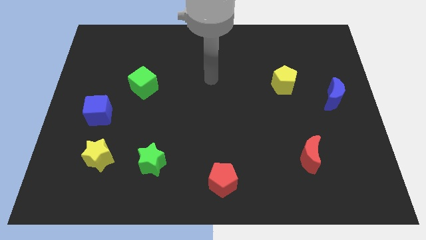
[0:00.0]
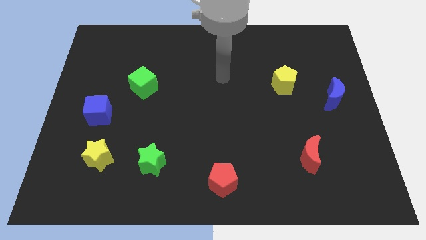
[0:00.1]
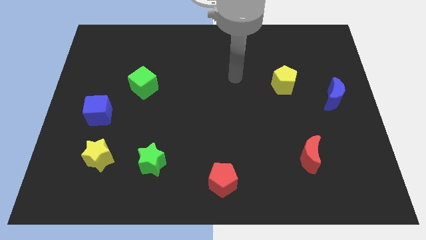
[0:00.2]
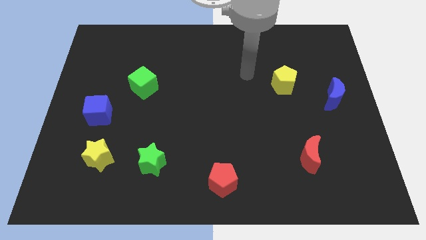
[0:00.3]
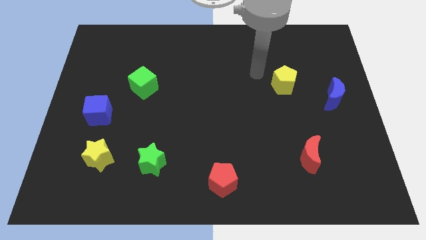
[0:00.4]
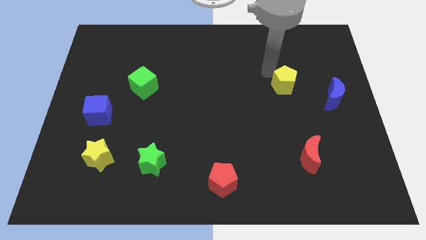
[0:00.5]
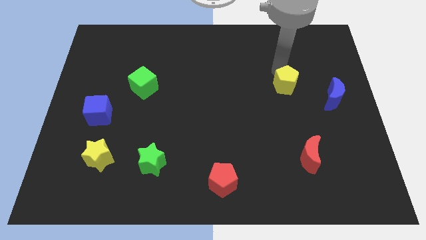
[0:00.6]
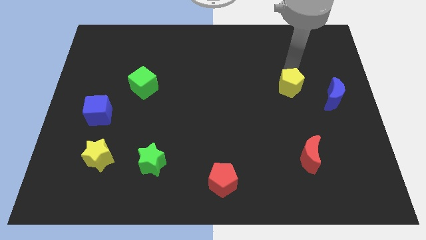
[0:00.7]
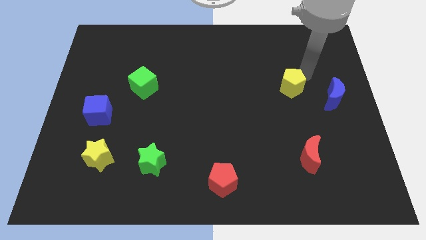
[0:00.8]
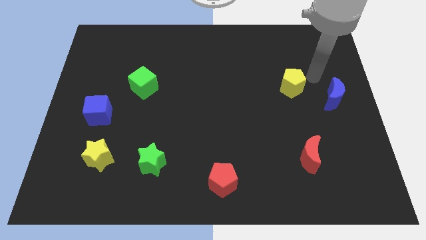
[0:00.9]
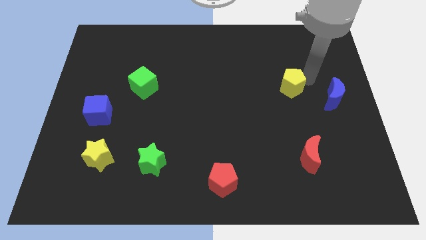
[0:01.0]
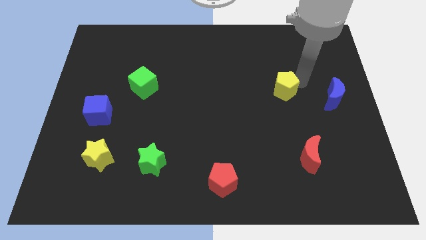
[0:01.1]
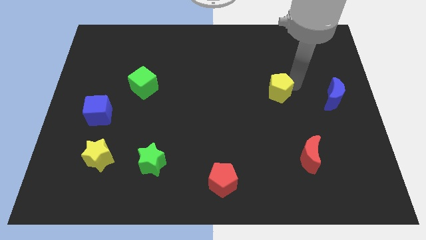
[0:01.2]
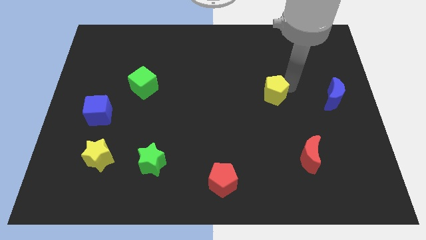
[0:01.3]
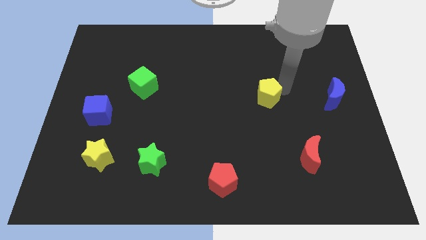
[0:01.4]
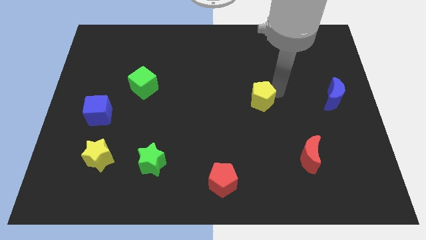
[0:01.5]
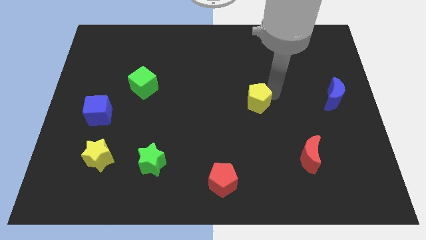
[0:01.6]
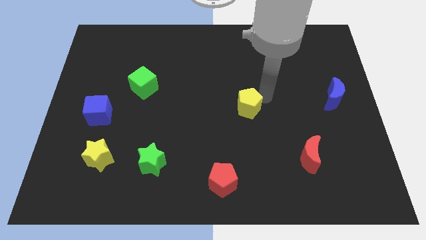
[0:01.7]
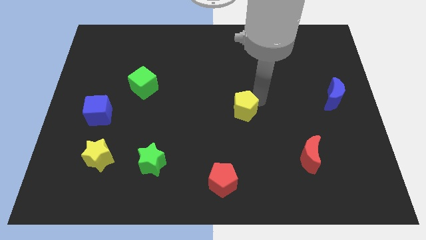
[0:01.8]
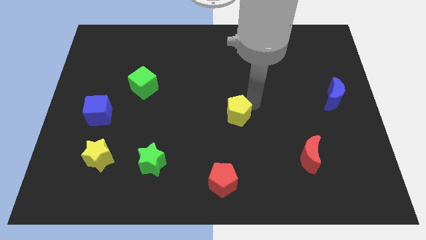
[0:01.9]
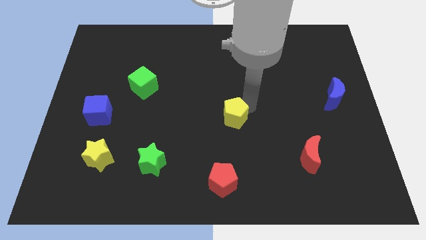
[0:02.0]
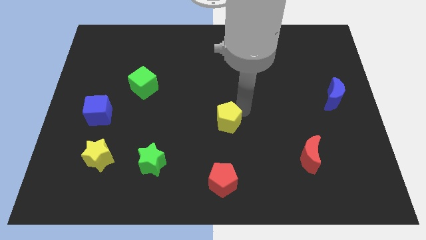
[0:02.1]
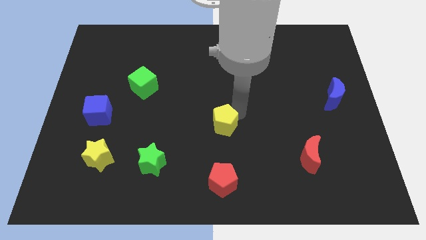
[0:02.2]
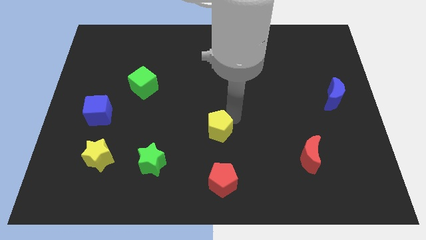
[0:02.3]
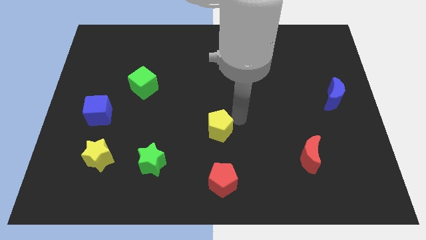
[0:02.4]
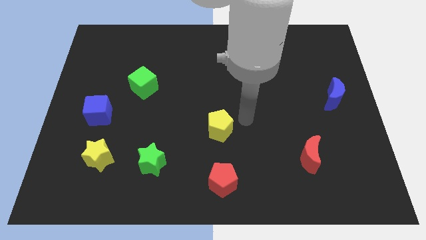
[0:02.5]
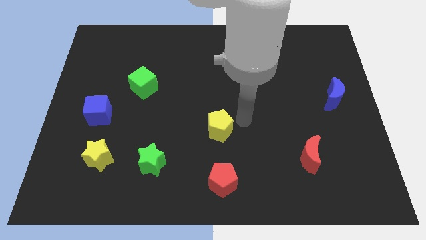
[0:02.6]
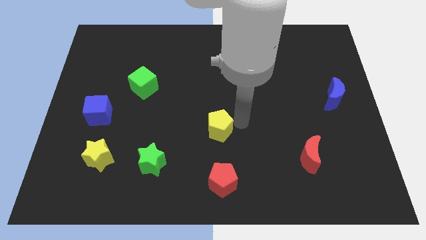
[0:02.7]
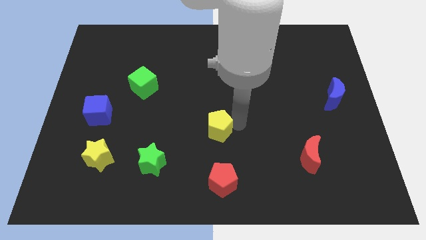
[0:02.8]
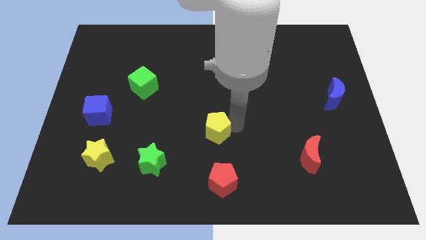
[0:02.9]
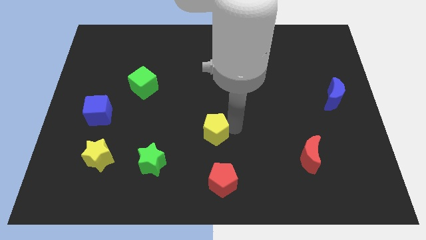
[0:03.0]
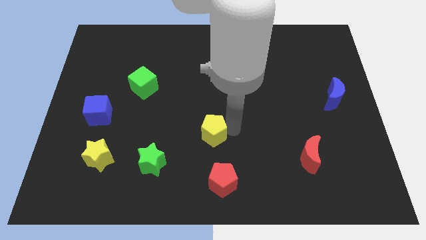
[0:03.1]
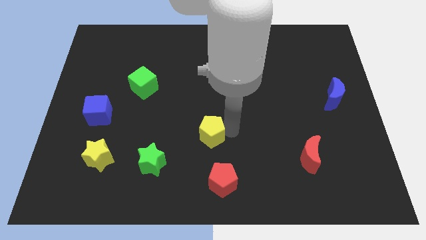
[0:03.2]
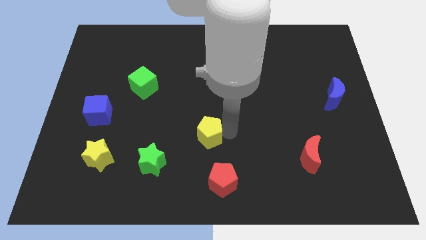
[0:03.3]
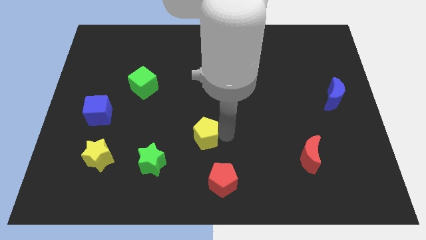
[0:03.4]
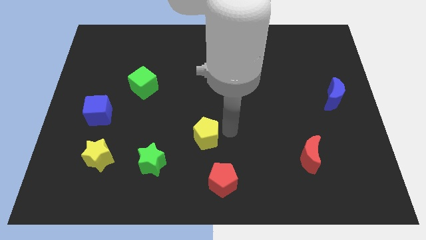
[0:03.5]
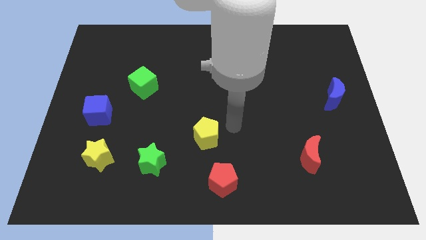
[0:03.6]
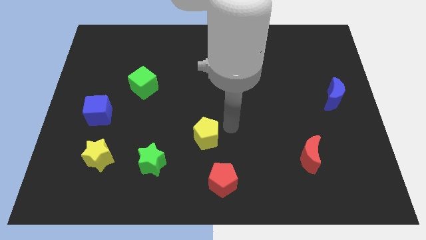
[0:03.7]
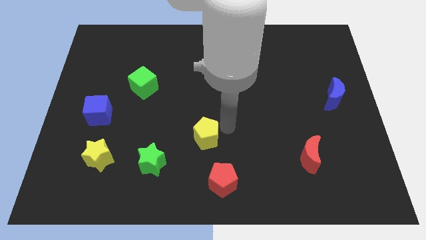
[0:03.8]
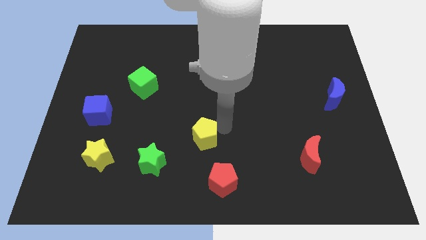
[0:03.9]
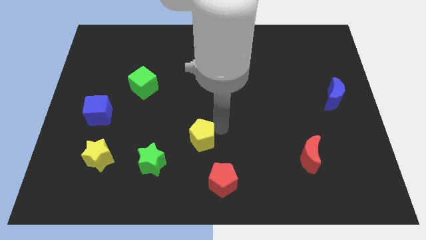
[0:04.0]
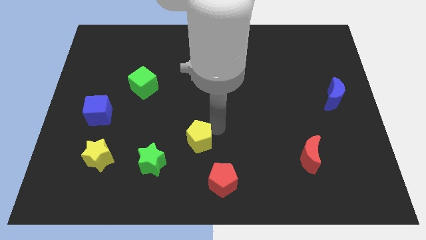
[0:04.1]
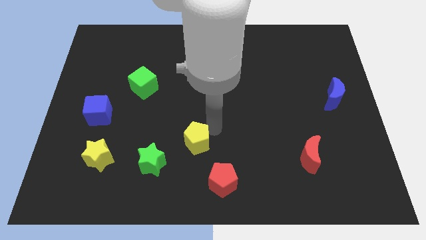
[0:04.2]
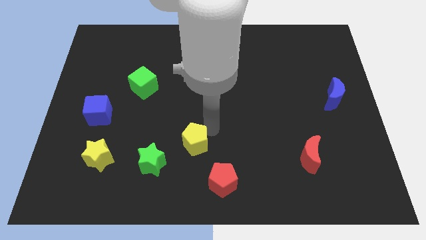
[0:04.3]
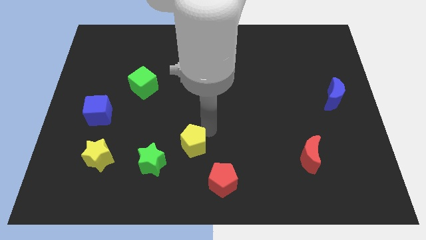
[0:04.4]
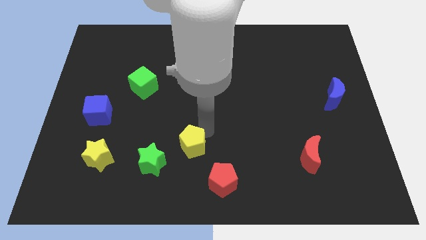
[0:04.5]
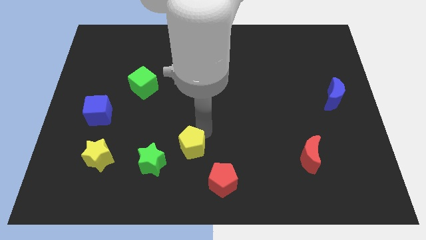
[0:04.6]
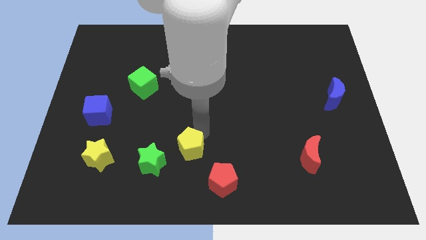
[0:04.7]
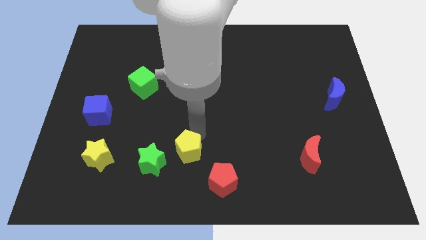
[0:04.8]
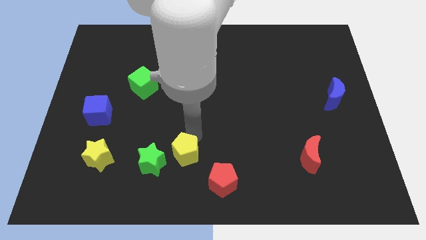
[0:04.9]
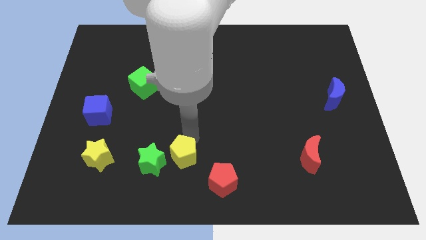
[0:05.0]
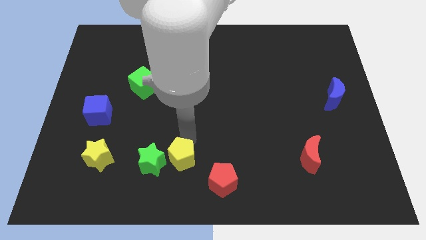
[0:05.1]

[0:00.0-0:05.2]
put the yellow pentagon close to the green star

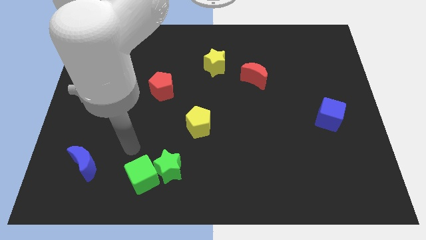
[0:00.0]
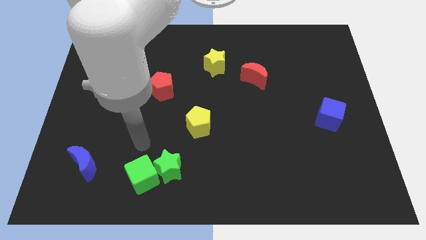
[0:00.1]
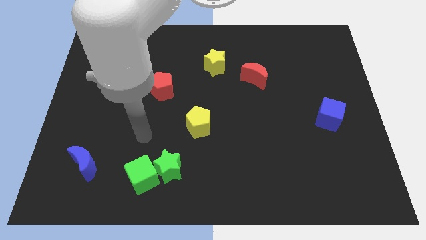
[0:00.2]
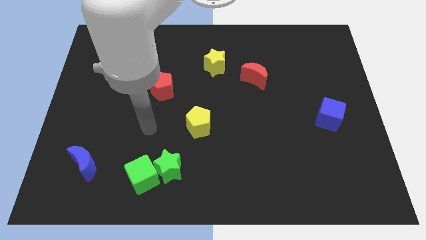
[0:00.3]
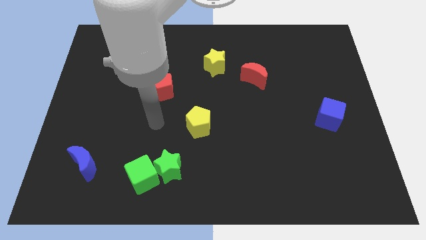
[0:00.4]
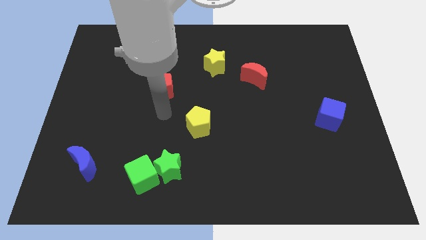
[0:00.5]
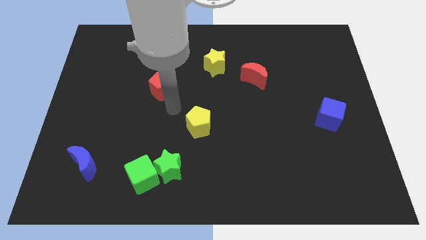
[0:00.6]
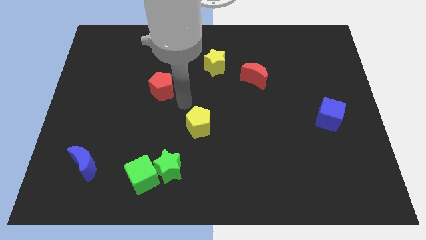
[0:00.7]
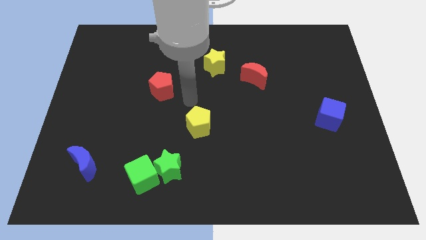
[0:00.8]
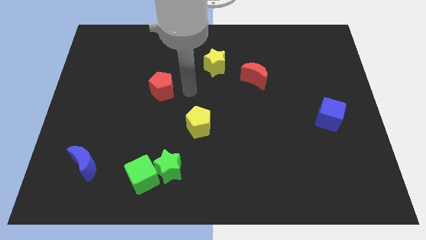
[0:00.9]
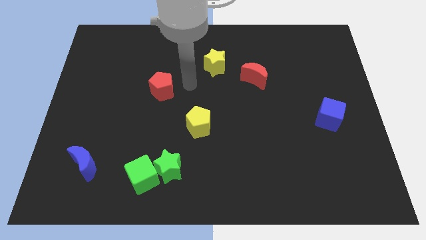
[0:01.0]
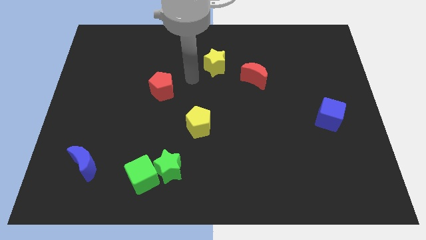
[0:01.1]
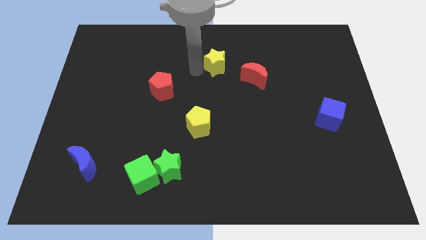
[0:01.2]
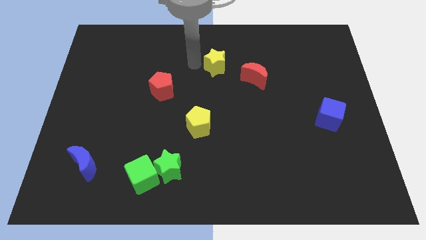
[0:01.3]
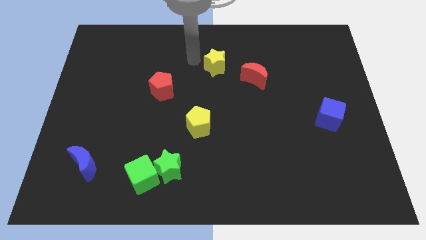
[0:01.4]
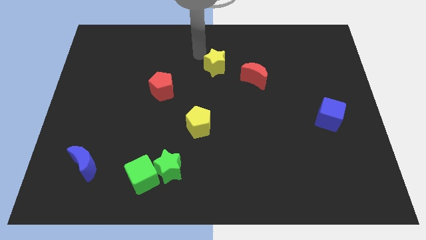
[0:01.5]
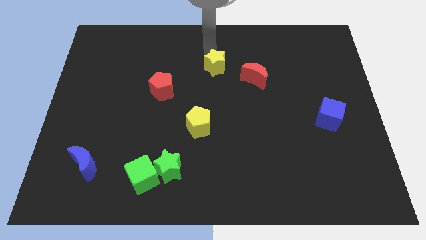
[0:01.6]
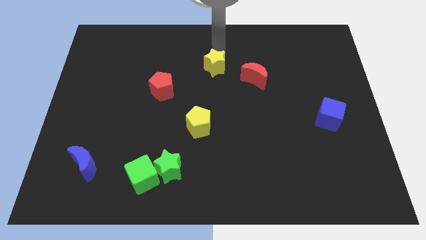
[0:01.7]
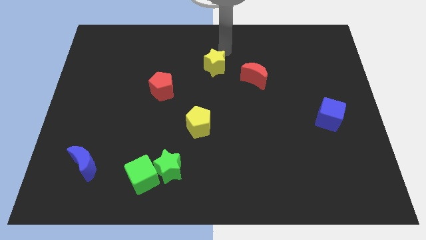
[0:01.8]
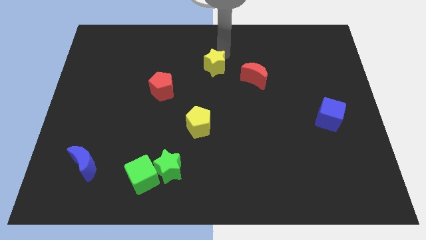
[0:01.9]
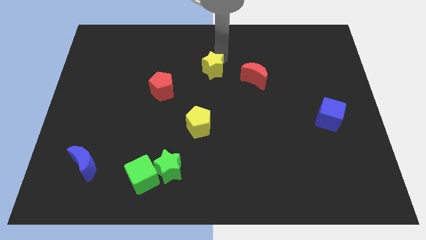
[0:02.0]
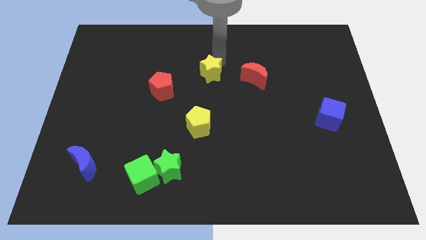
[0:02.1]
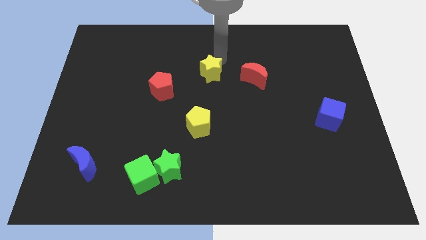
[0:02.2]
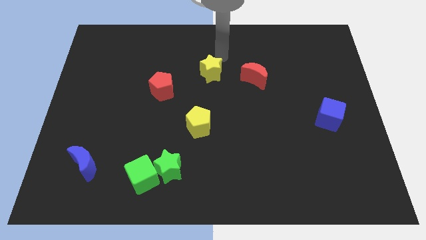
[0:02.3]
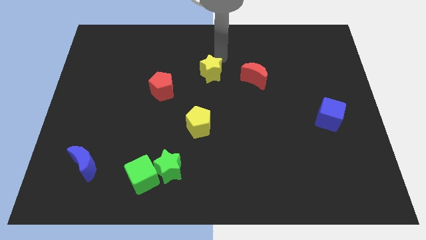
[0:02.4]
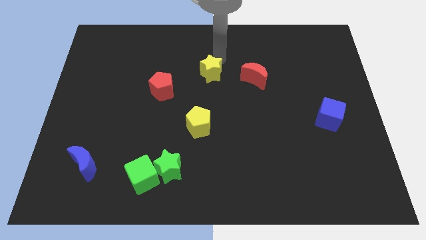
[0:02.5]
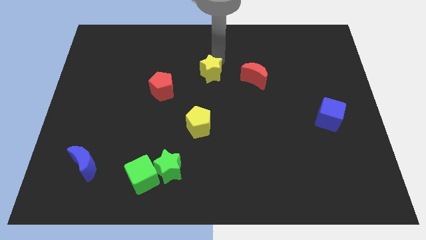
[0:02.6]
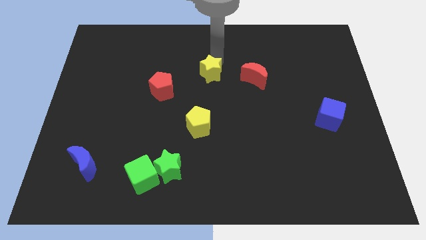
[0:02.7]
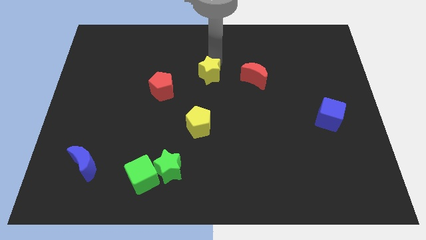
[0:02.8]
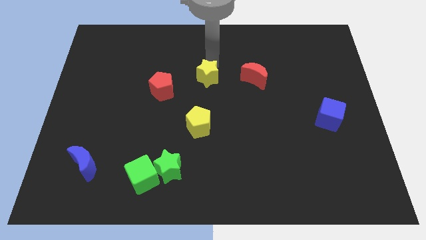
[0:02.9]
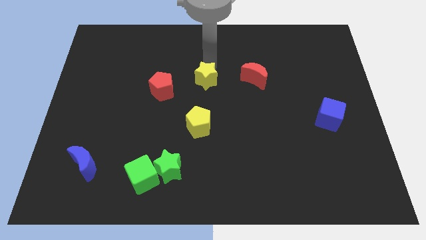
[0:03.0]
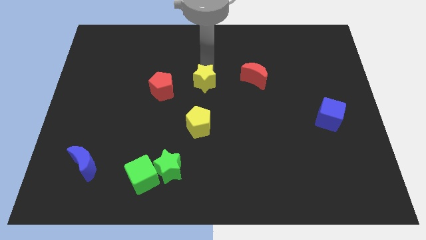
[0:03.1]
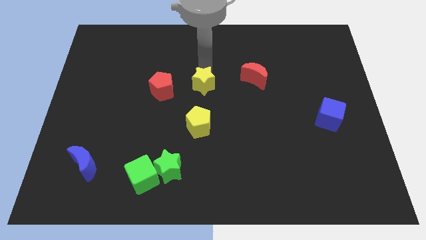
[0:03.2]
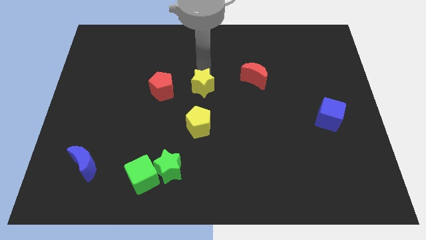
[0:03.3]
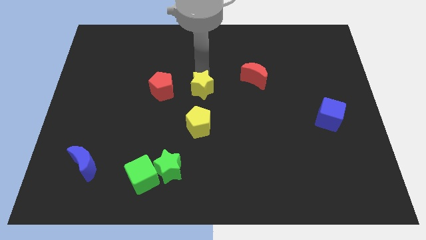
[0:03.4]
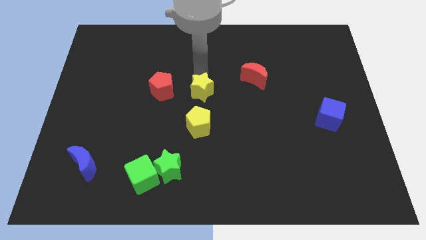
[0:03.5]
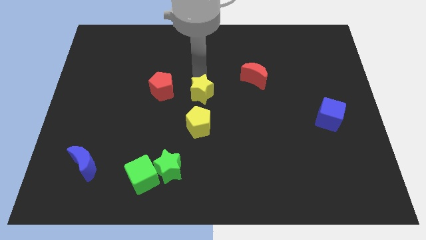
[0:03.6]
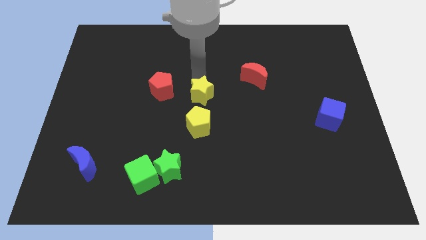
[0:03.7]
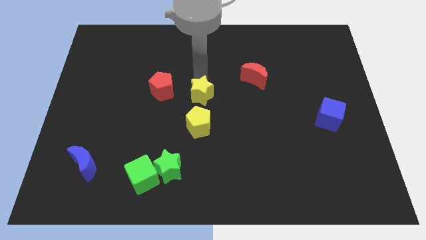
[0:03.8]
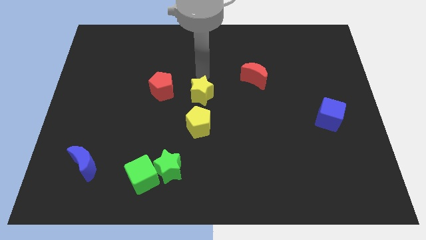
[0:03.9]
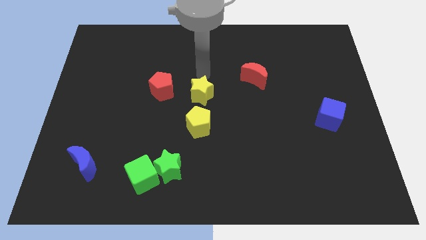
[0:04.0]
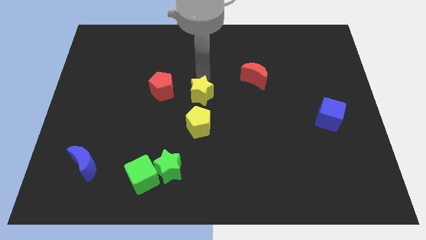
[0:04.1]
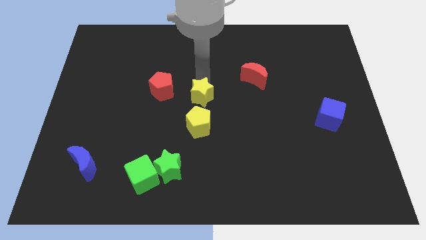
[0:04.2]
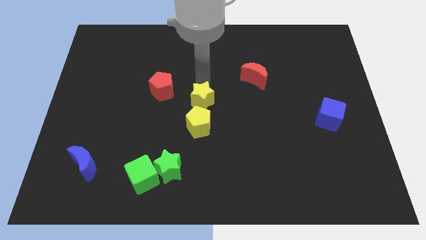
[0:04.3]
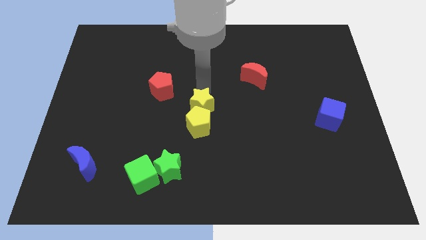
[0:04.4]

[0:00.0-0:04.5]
slide the yellow star towards the yellow pentagon
